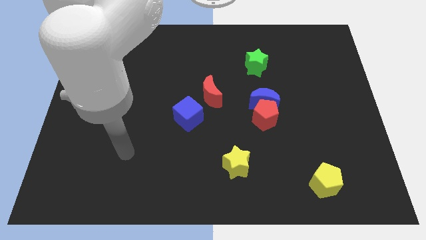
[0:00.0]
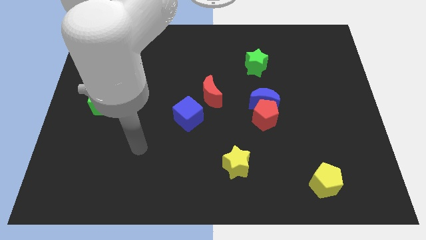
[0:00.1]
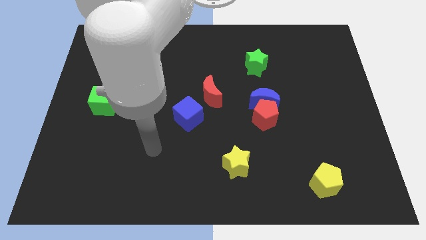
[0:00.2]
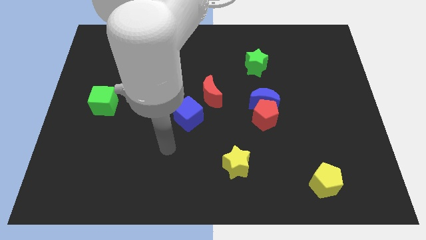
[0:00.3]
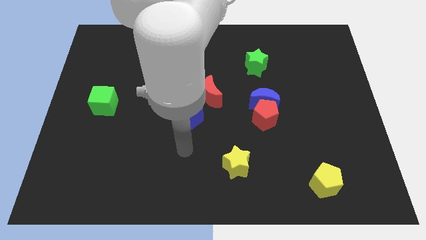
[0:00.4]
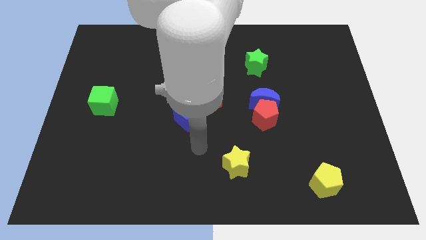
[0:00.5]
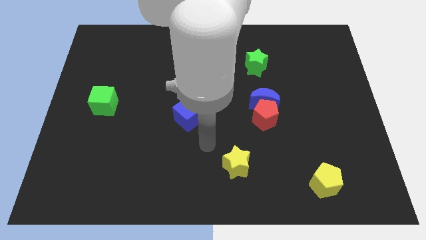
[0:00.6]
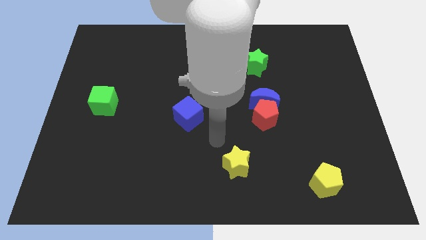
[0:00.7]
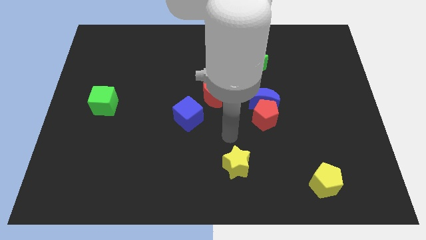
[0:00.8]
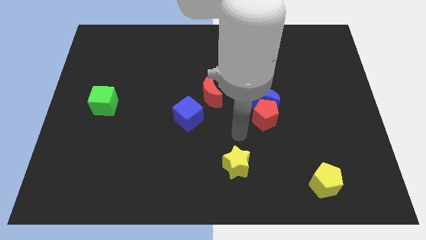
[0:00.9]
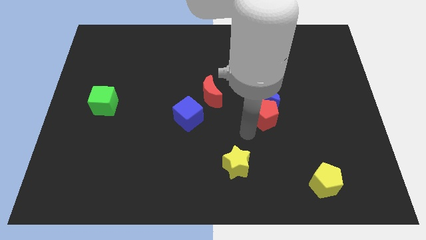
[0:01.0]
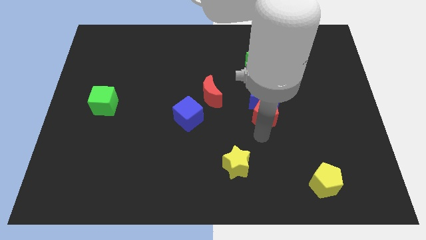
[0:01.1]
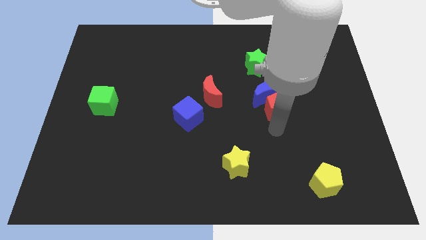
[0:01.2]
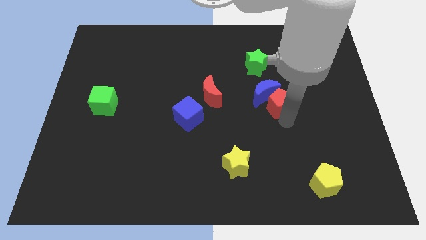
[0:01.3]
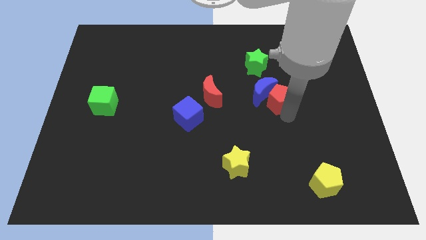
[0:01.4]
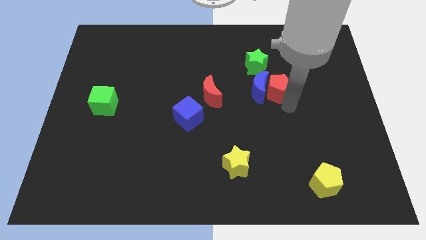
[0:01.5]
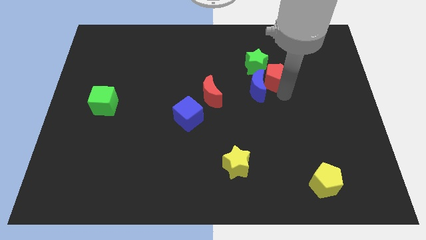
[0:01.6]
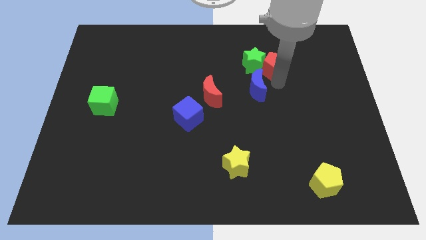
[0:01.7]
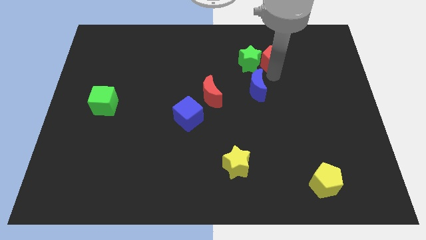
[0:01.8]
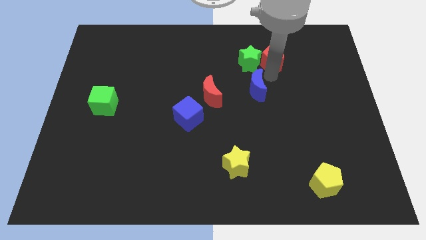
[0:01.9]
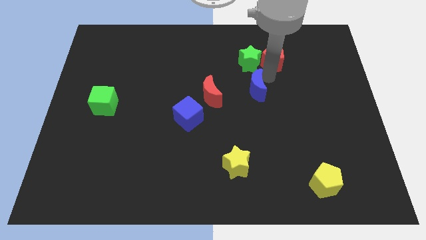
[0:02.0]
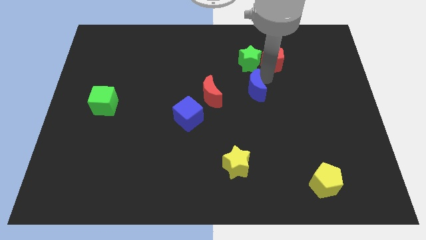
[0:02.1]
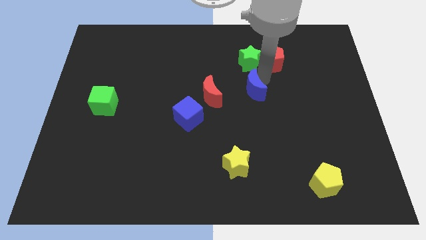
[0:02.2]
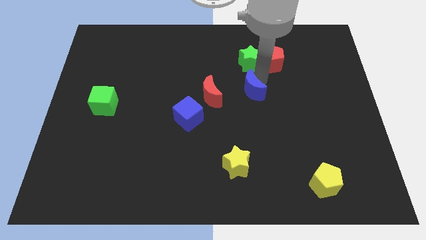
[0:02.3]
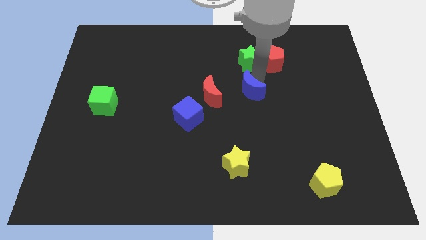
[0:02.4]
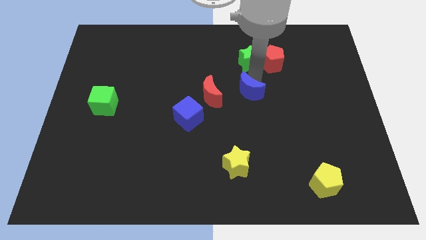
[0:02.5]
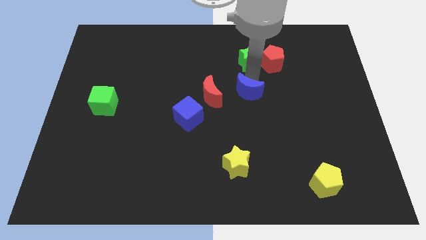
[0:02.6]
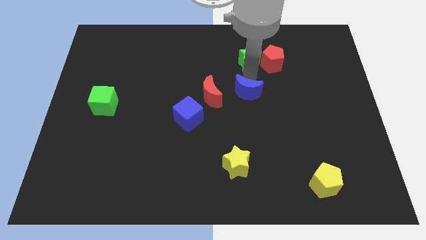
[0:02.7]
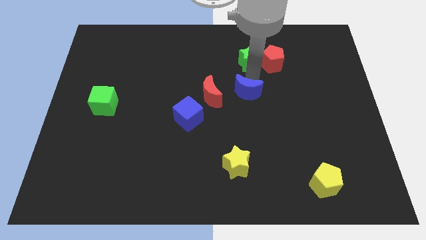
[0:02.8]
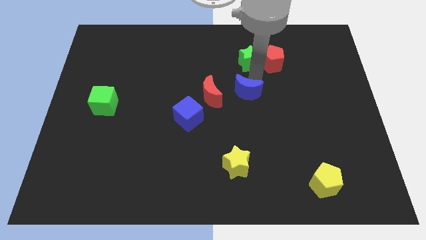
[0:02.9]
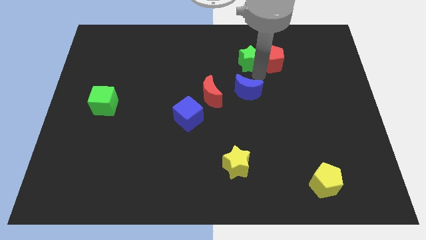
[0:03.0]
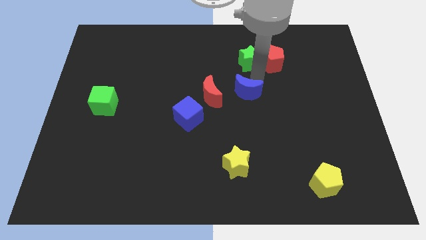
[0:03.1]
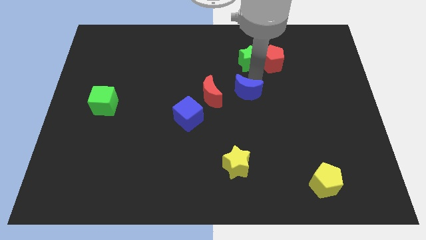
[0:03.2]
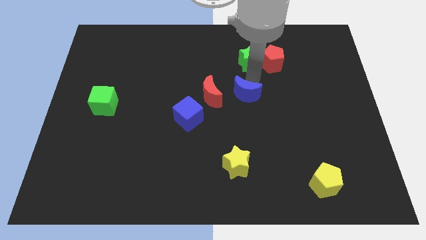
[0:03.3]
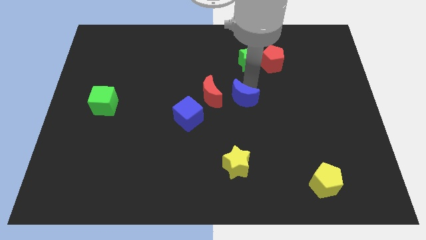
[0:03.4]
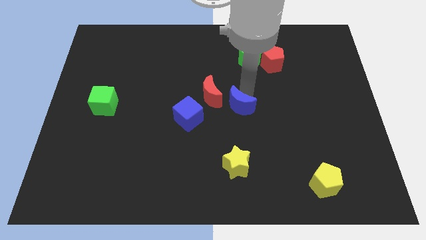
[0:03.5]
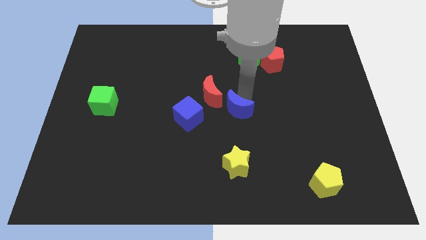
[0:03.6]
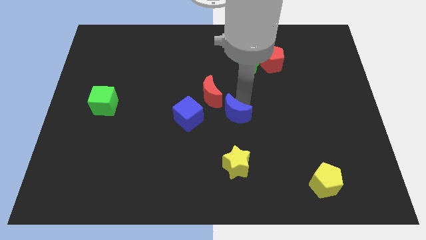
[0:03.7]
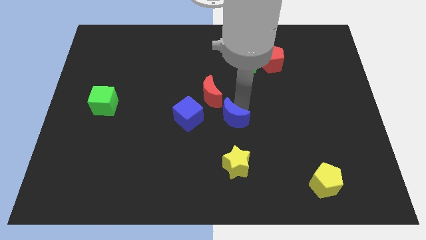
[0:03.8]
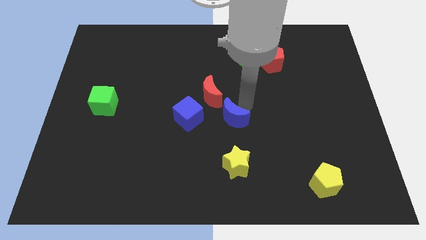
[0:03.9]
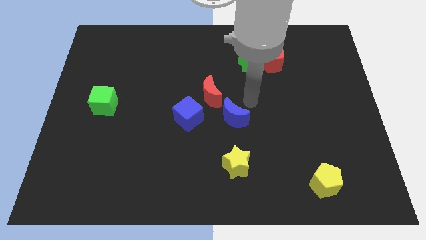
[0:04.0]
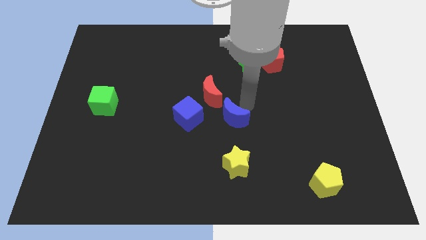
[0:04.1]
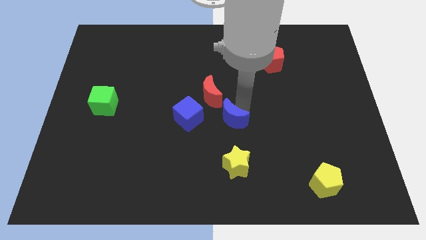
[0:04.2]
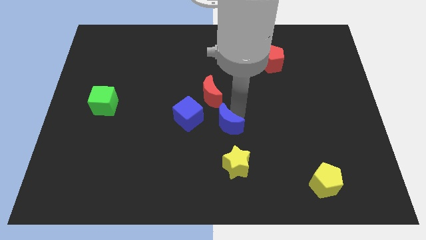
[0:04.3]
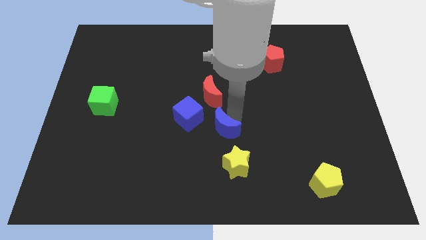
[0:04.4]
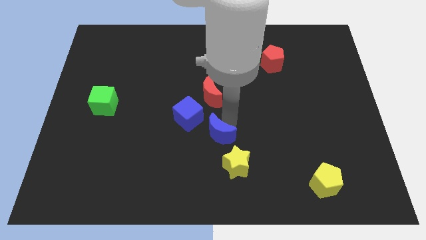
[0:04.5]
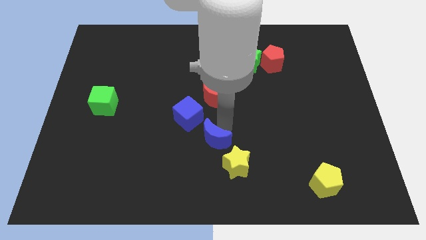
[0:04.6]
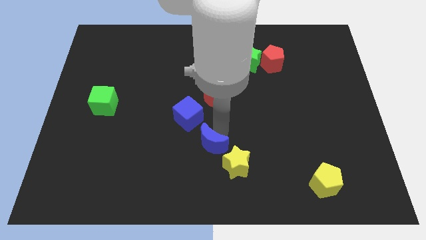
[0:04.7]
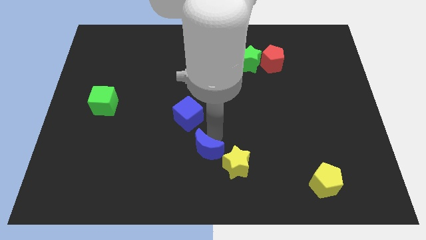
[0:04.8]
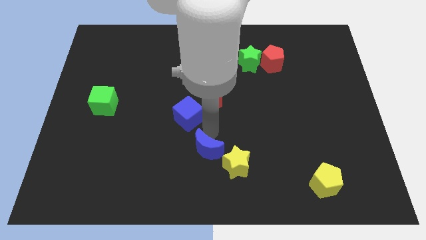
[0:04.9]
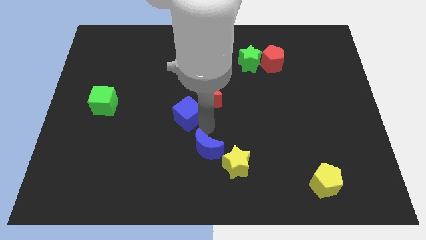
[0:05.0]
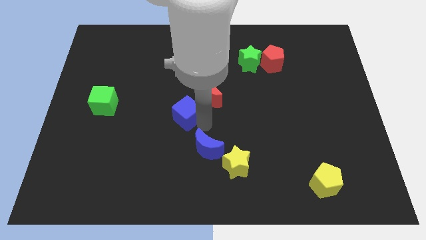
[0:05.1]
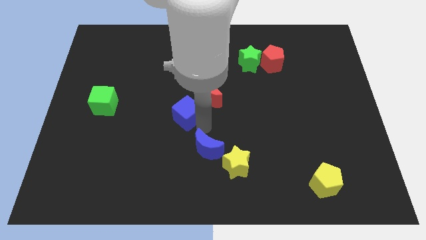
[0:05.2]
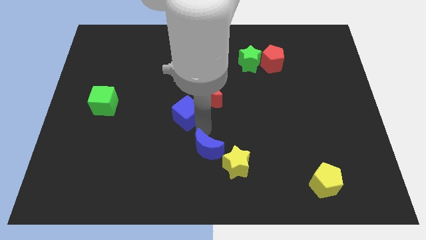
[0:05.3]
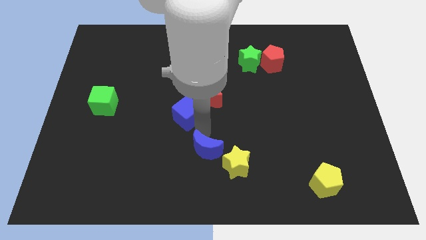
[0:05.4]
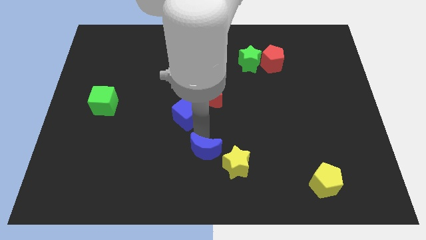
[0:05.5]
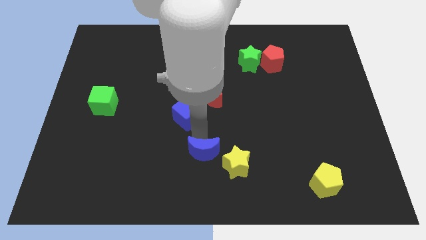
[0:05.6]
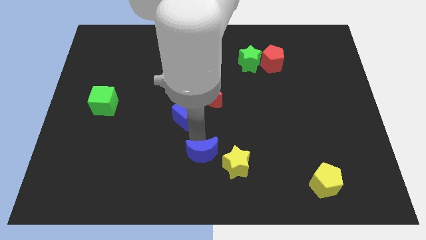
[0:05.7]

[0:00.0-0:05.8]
put the blue moon to the bottom
